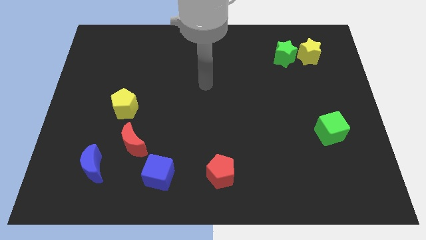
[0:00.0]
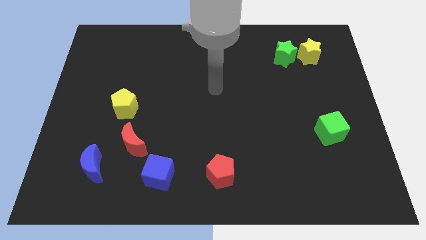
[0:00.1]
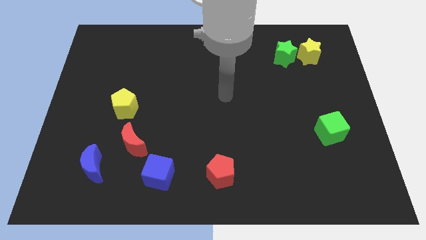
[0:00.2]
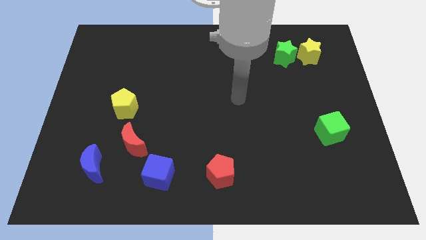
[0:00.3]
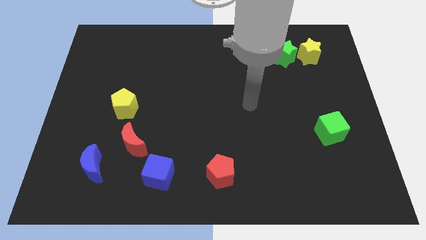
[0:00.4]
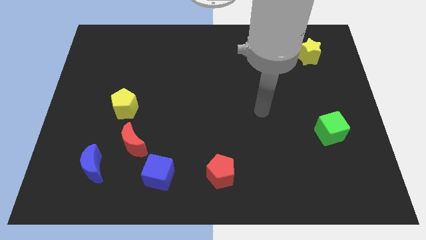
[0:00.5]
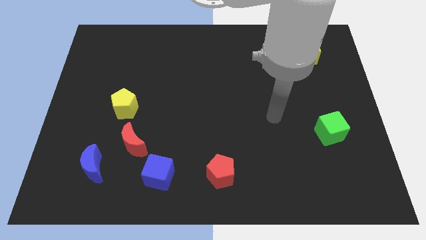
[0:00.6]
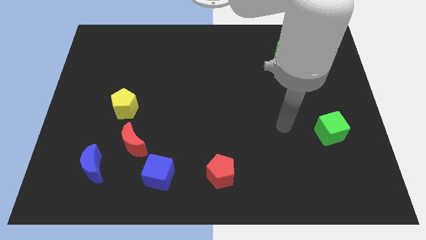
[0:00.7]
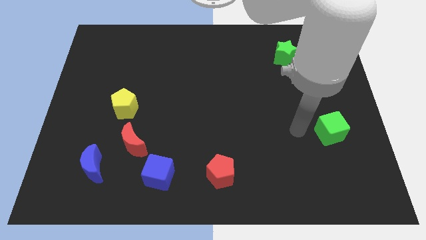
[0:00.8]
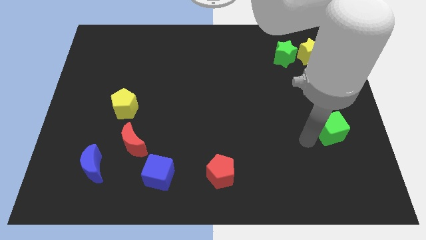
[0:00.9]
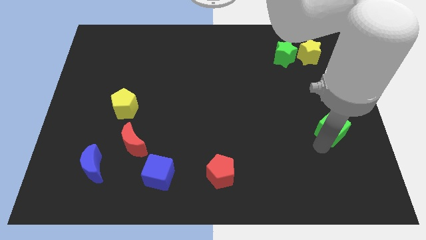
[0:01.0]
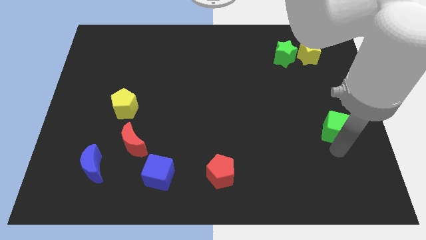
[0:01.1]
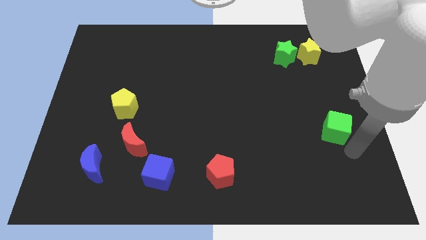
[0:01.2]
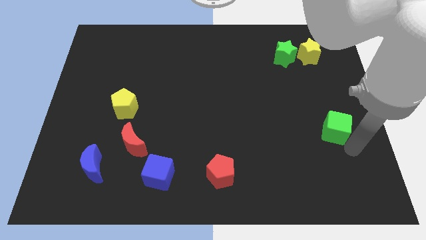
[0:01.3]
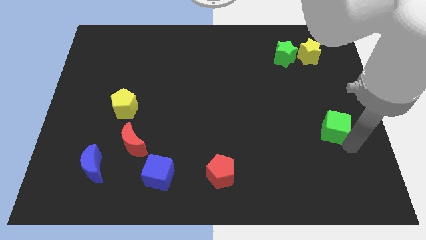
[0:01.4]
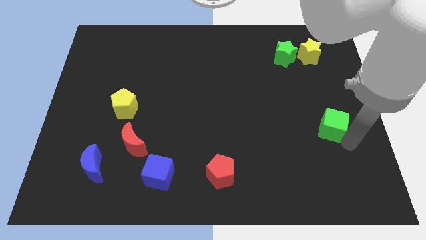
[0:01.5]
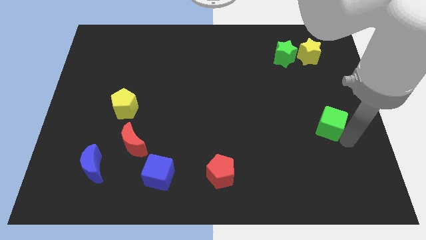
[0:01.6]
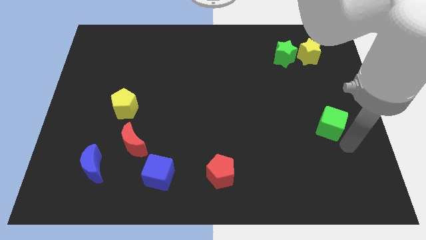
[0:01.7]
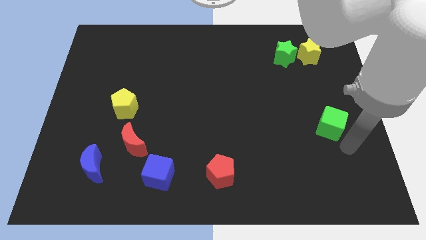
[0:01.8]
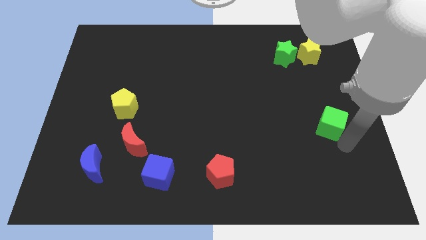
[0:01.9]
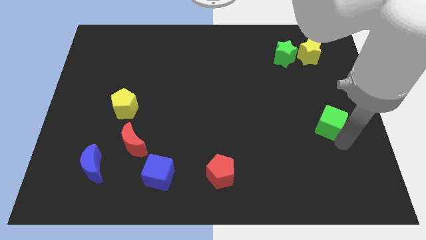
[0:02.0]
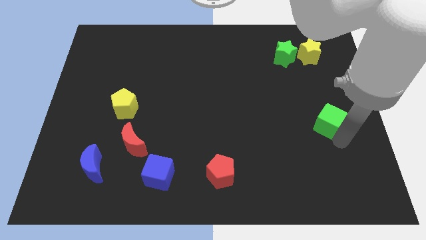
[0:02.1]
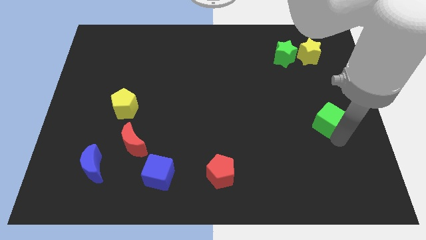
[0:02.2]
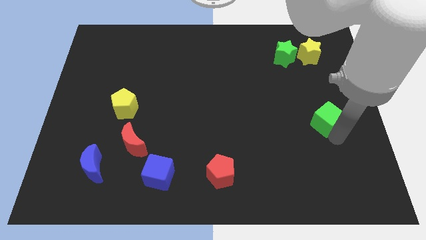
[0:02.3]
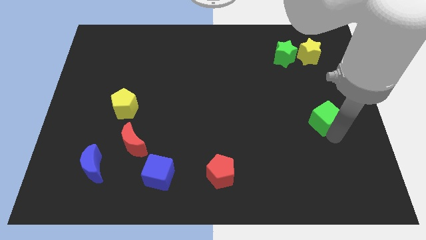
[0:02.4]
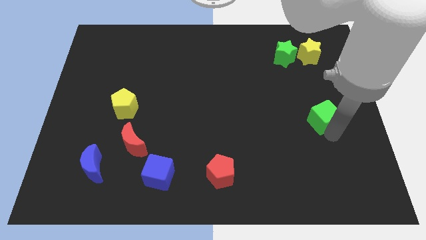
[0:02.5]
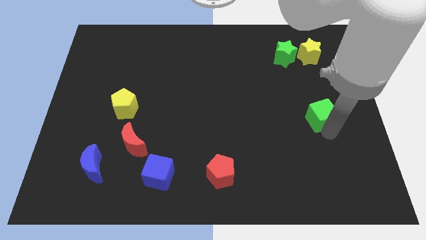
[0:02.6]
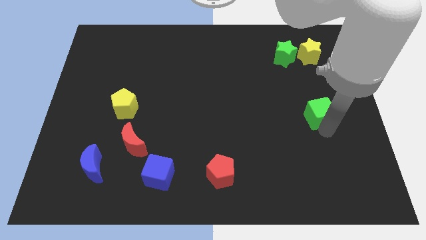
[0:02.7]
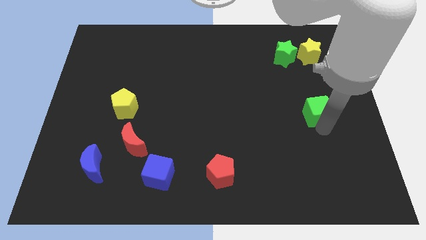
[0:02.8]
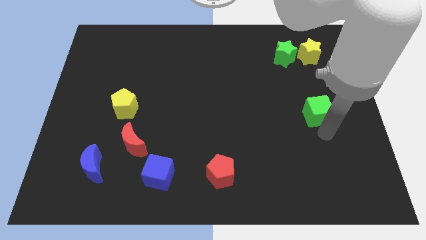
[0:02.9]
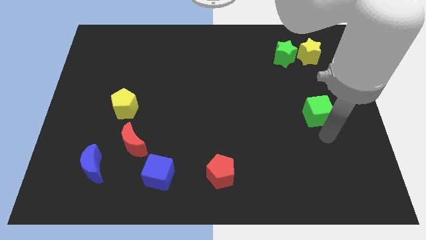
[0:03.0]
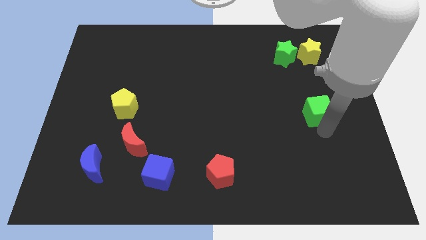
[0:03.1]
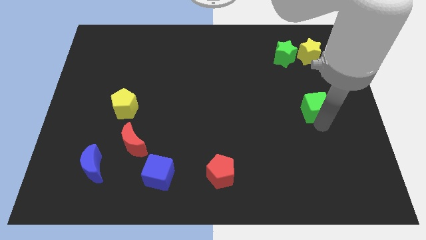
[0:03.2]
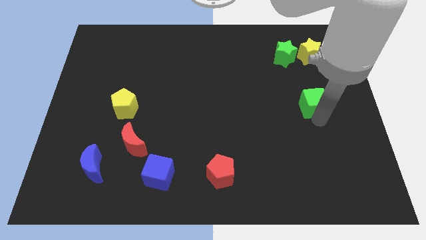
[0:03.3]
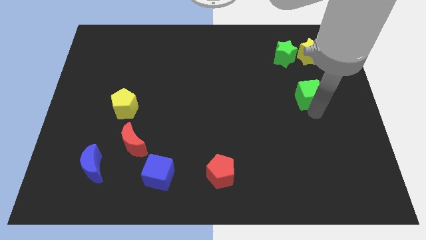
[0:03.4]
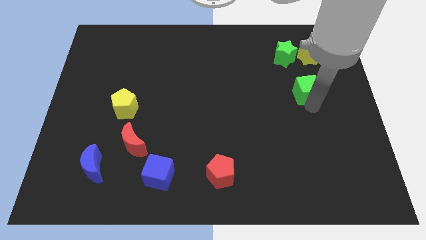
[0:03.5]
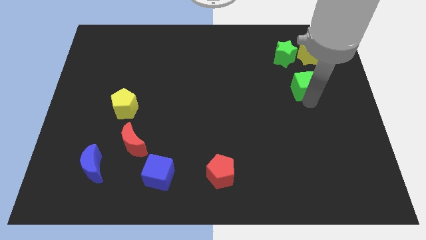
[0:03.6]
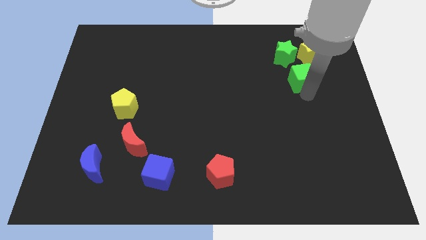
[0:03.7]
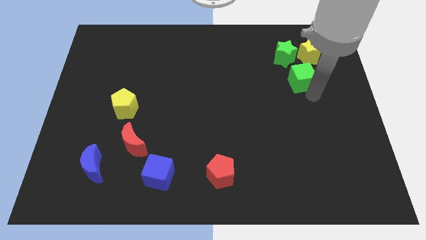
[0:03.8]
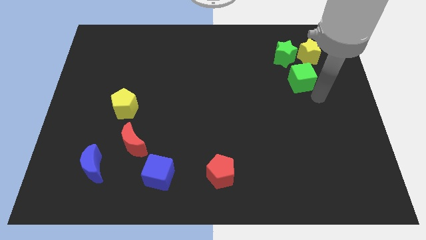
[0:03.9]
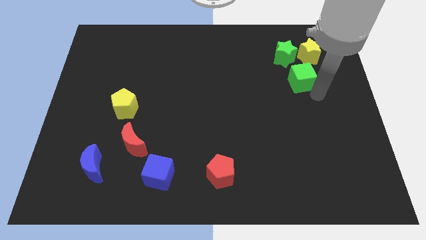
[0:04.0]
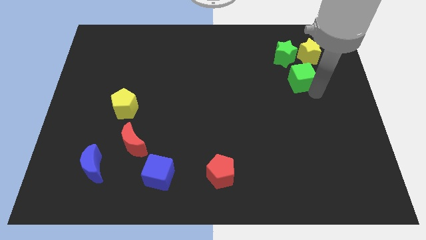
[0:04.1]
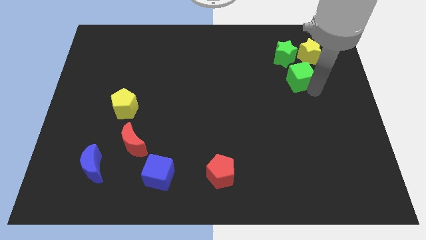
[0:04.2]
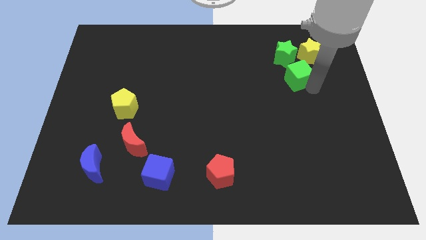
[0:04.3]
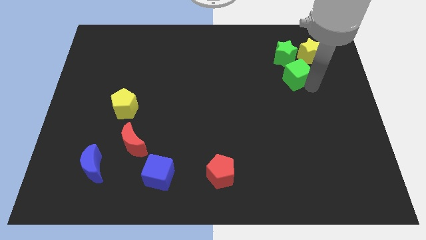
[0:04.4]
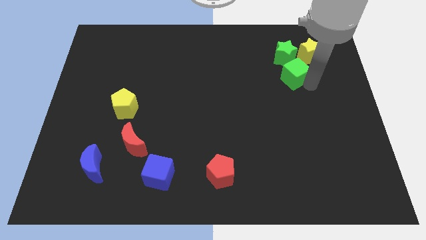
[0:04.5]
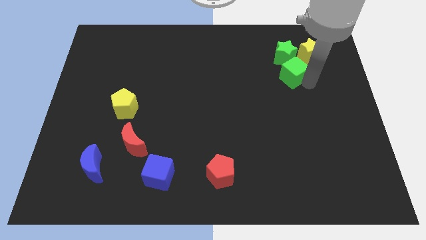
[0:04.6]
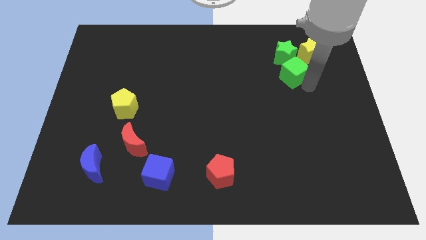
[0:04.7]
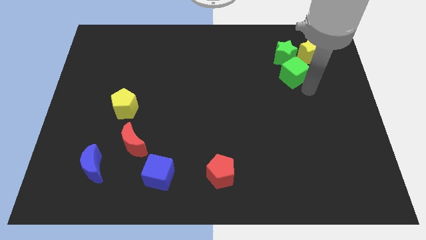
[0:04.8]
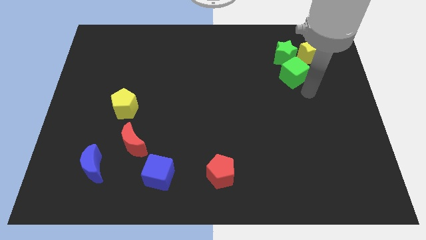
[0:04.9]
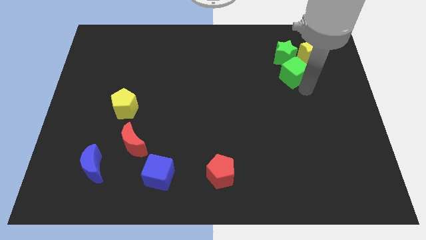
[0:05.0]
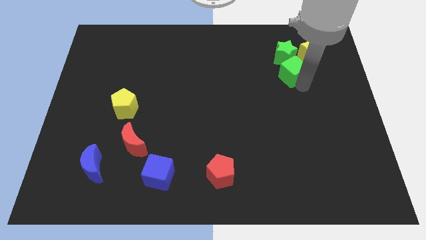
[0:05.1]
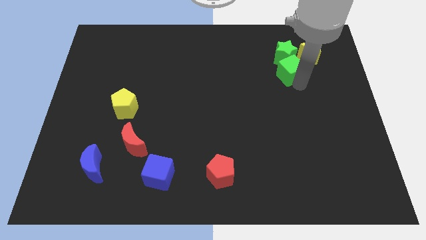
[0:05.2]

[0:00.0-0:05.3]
push the green cube towards the green star

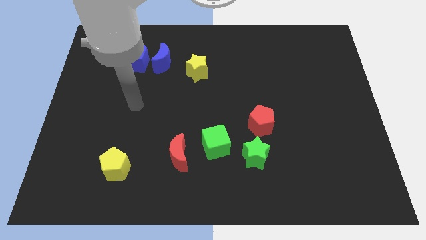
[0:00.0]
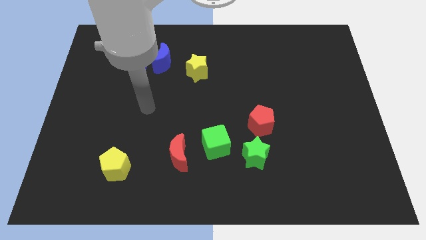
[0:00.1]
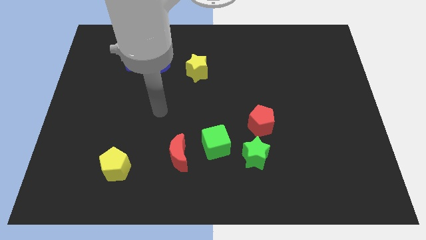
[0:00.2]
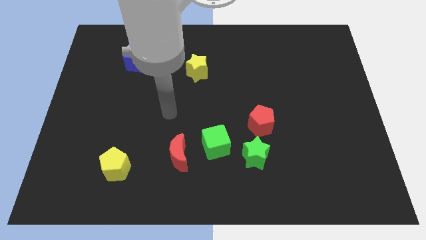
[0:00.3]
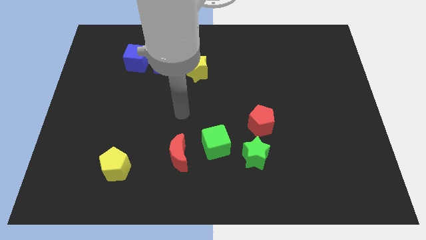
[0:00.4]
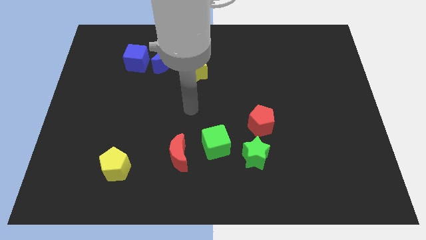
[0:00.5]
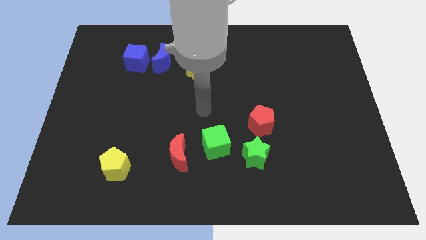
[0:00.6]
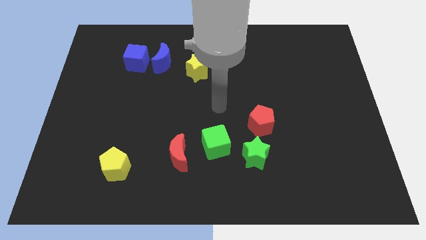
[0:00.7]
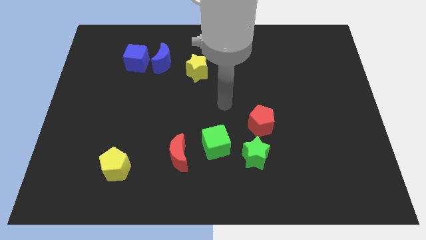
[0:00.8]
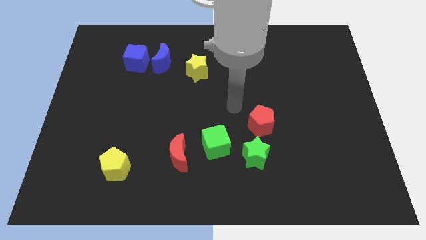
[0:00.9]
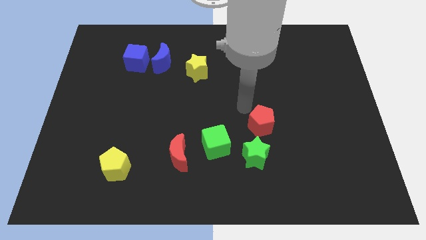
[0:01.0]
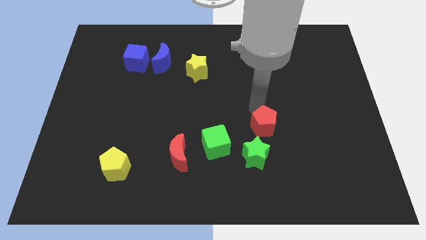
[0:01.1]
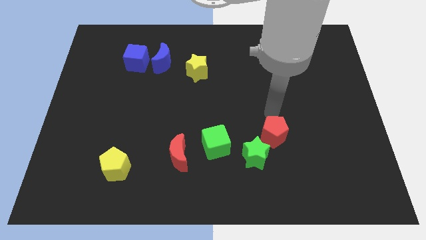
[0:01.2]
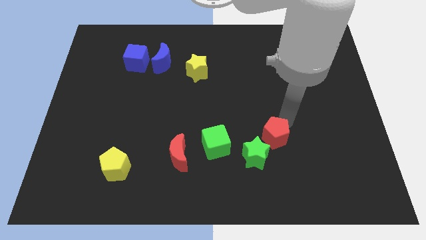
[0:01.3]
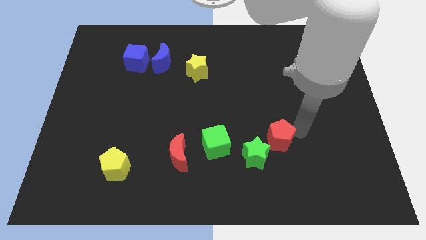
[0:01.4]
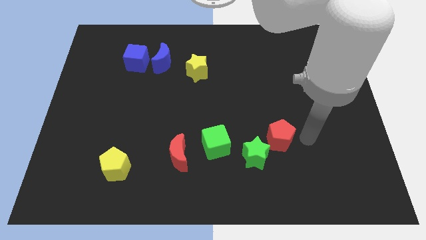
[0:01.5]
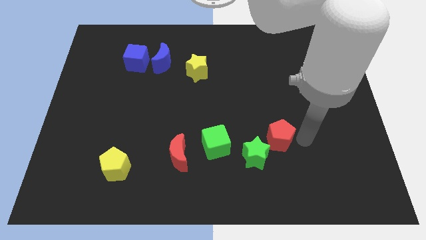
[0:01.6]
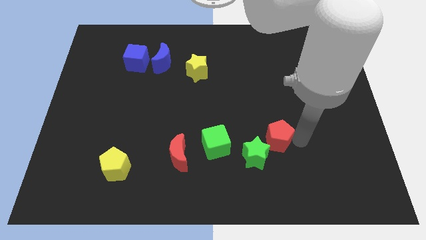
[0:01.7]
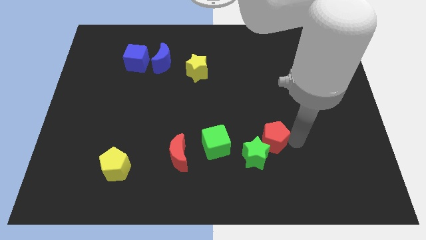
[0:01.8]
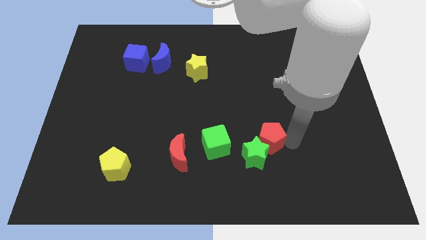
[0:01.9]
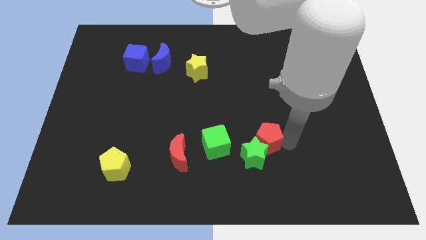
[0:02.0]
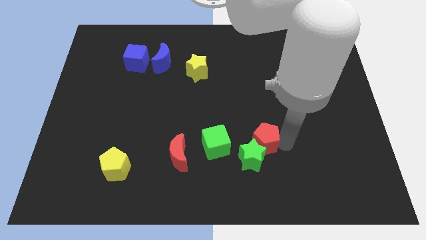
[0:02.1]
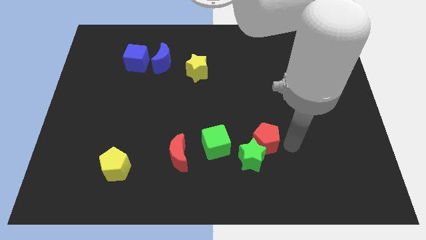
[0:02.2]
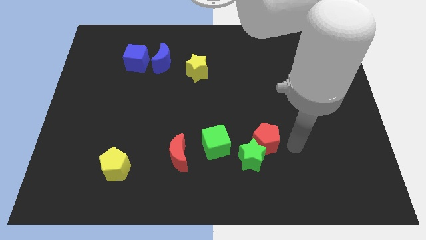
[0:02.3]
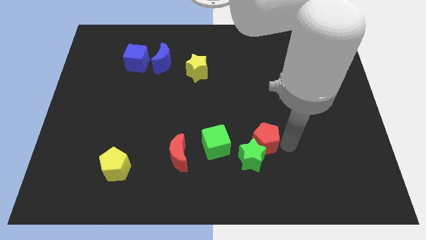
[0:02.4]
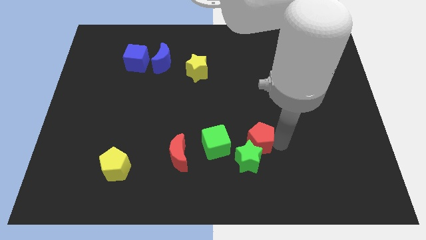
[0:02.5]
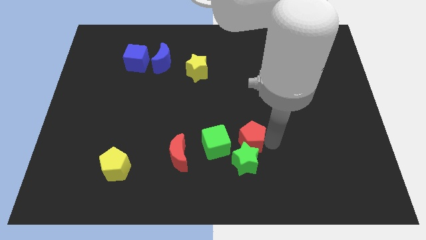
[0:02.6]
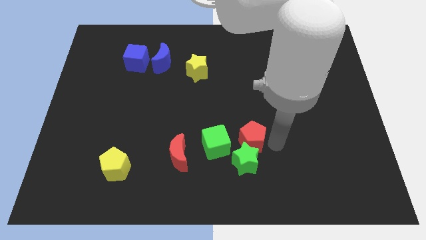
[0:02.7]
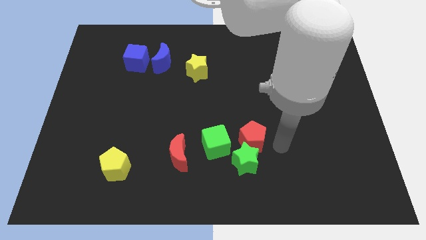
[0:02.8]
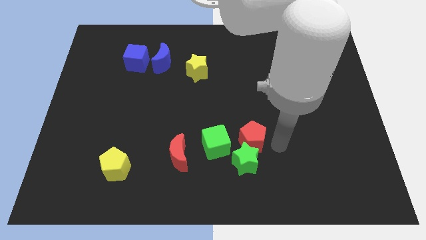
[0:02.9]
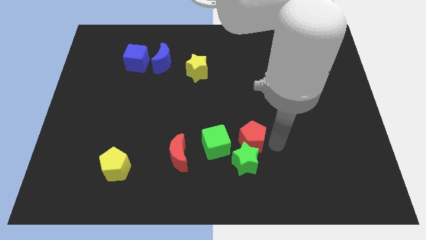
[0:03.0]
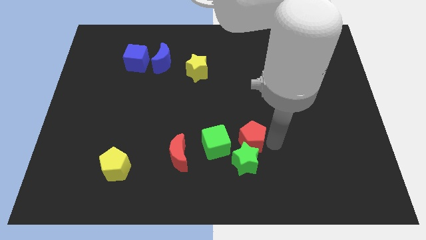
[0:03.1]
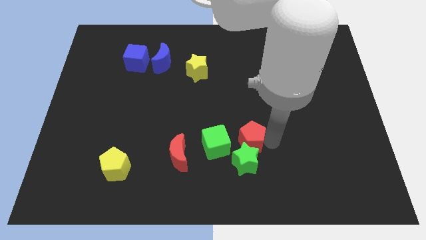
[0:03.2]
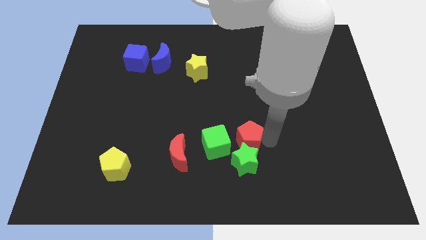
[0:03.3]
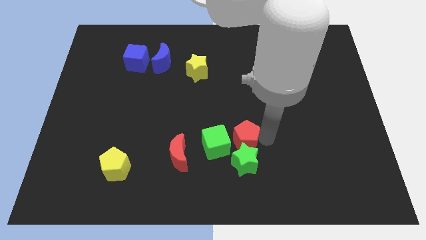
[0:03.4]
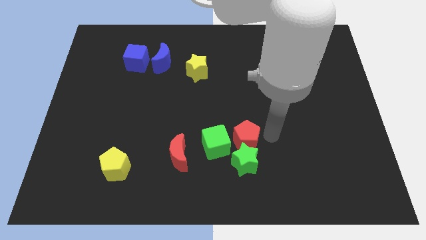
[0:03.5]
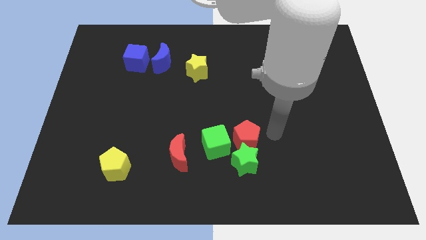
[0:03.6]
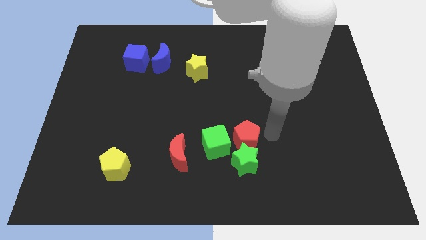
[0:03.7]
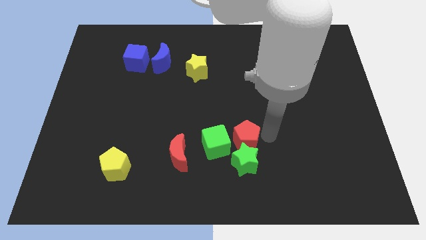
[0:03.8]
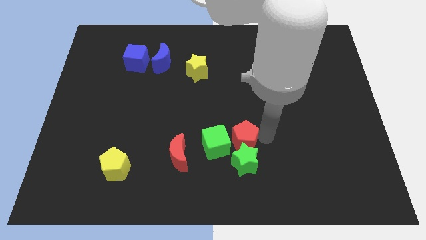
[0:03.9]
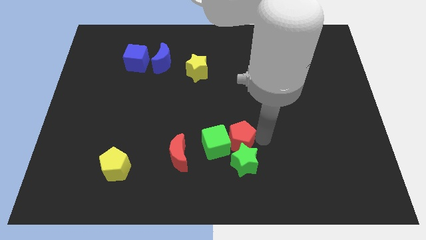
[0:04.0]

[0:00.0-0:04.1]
slide the red pentagon towards the green cube
